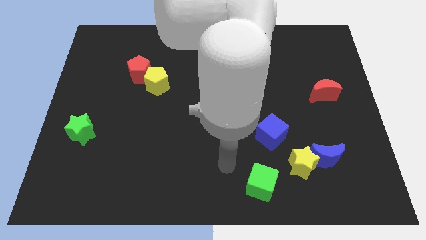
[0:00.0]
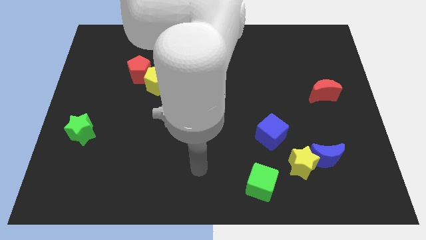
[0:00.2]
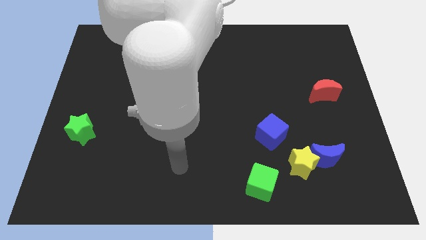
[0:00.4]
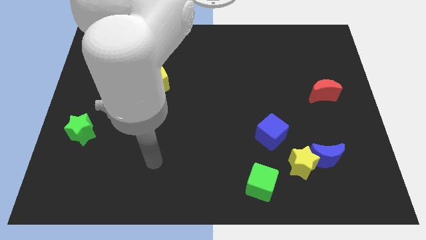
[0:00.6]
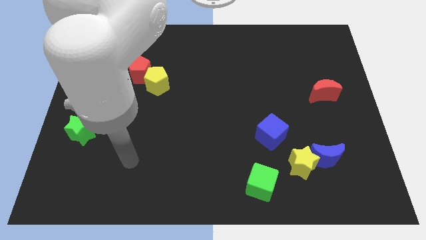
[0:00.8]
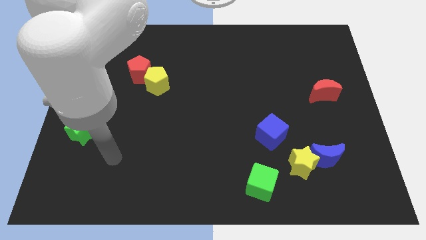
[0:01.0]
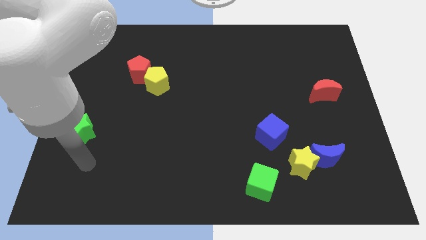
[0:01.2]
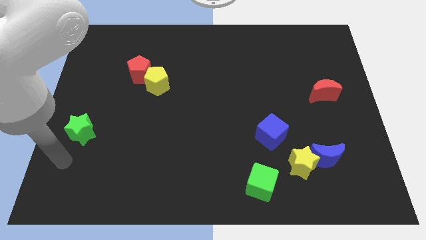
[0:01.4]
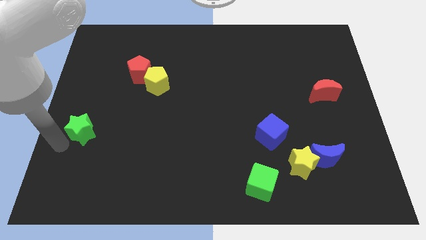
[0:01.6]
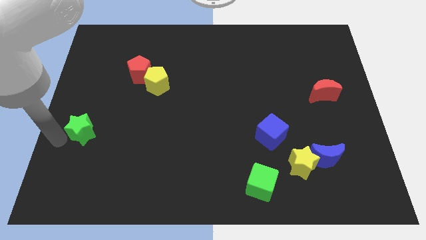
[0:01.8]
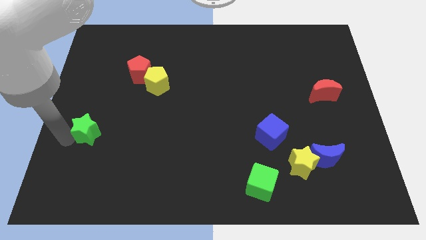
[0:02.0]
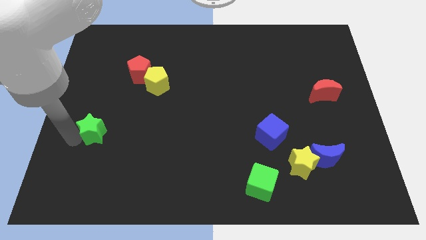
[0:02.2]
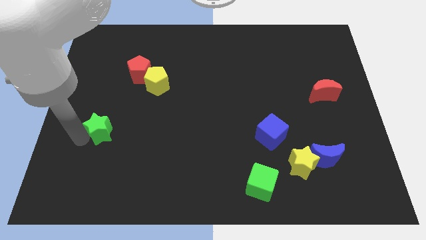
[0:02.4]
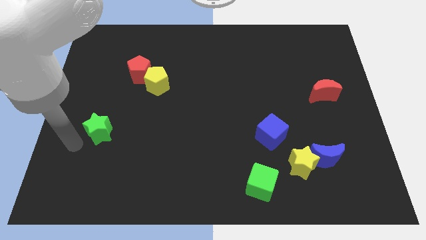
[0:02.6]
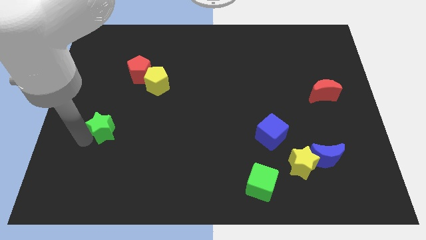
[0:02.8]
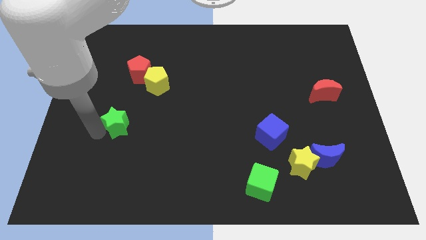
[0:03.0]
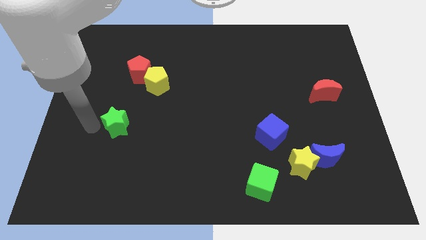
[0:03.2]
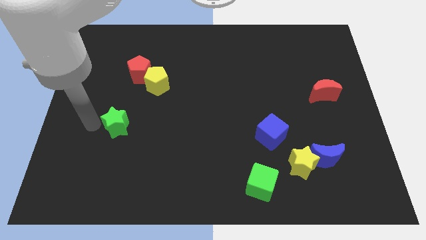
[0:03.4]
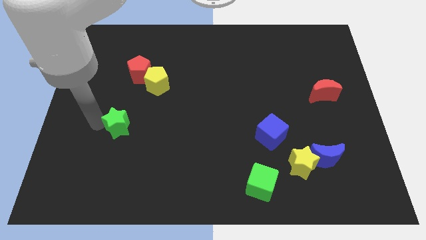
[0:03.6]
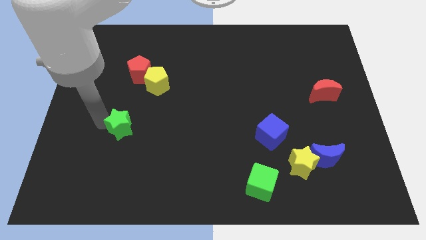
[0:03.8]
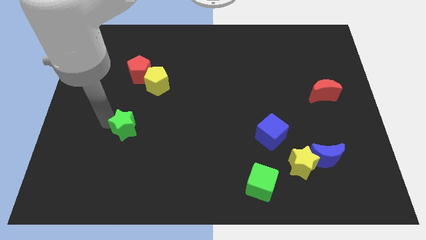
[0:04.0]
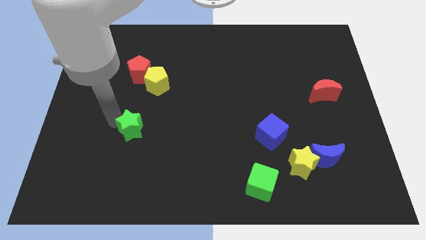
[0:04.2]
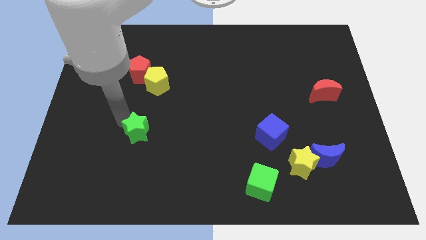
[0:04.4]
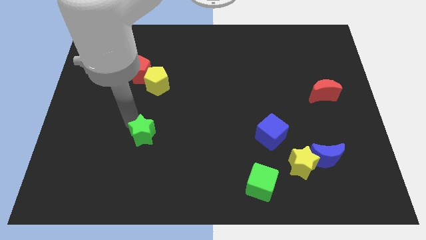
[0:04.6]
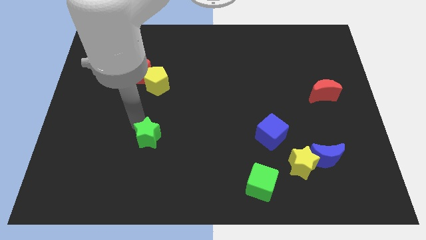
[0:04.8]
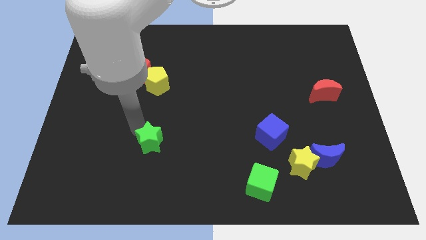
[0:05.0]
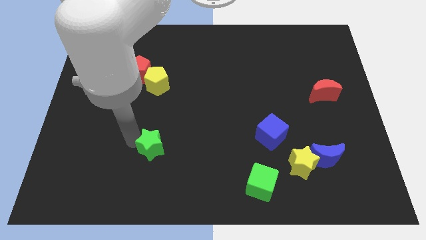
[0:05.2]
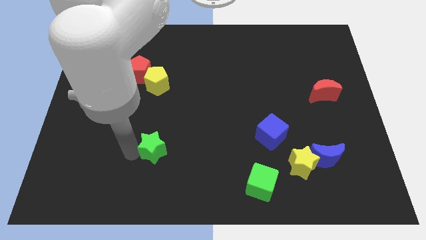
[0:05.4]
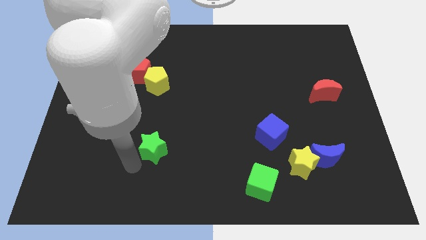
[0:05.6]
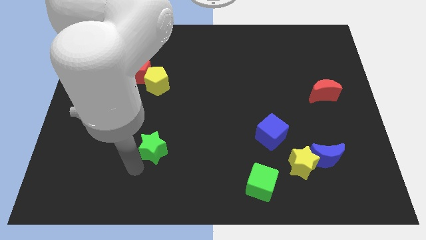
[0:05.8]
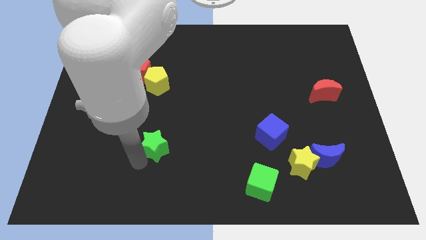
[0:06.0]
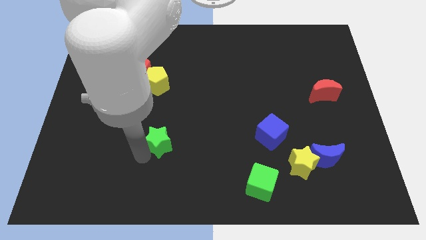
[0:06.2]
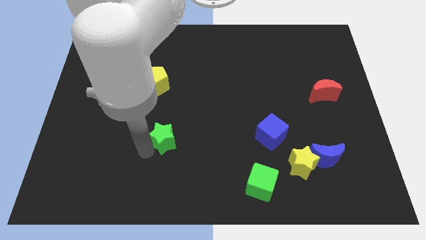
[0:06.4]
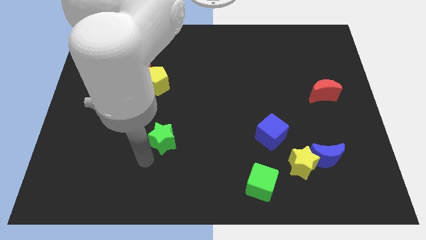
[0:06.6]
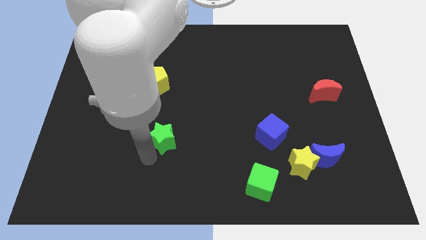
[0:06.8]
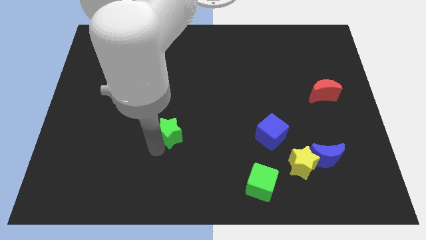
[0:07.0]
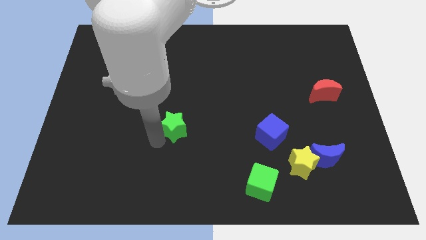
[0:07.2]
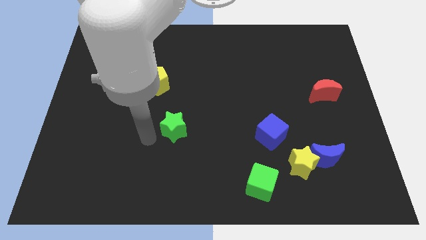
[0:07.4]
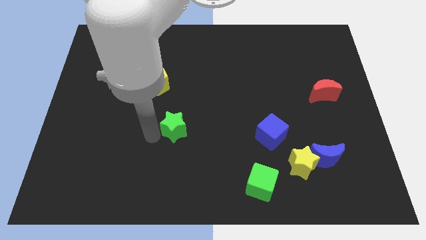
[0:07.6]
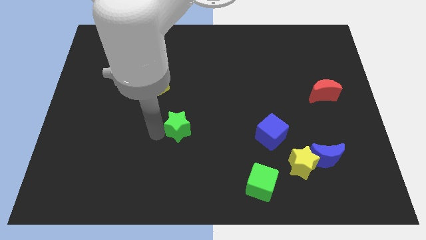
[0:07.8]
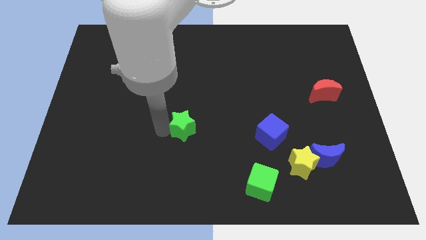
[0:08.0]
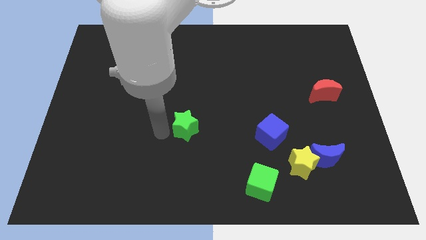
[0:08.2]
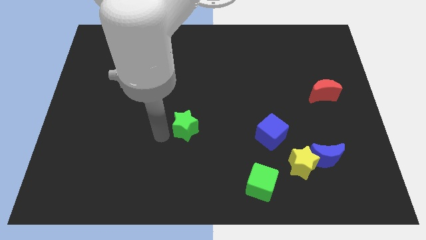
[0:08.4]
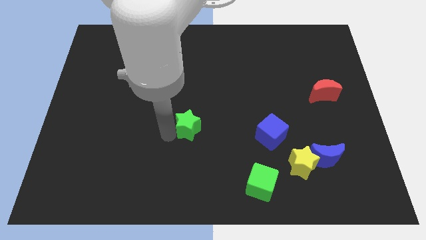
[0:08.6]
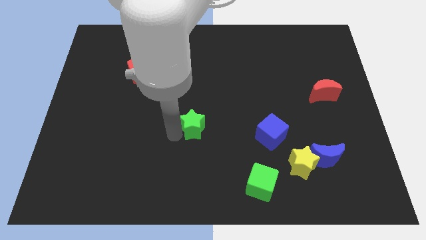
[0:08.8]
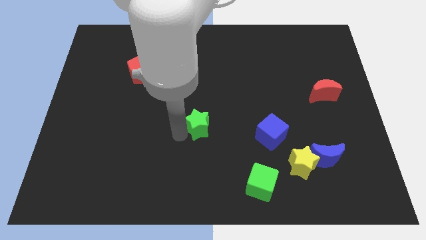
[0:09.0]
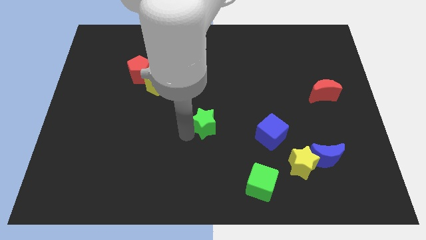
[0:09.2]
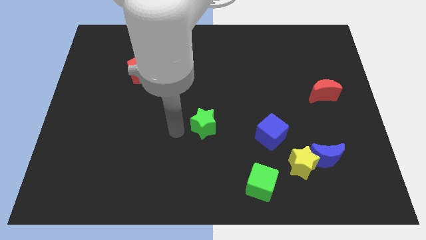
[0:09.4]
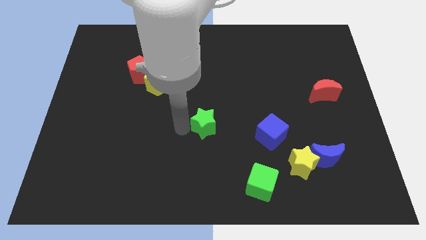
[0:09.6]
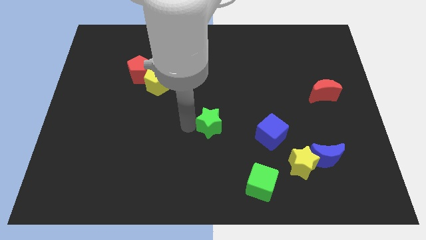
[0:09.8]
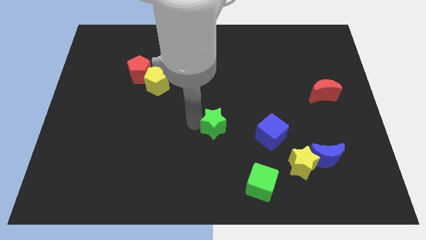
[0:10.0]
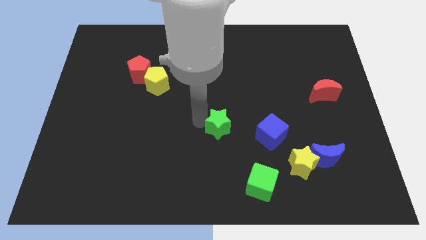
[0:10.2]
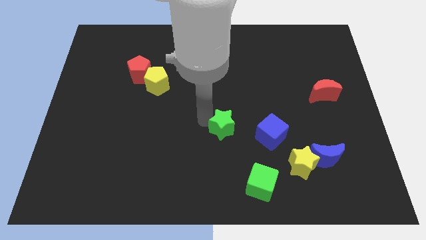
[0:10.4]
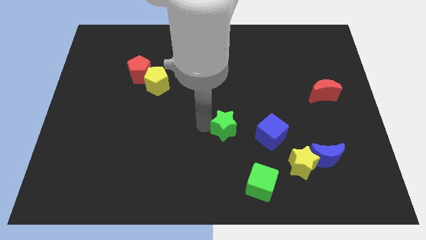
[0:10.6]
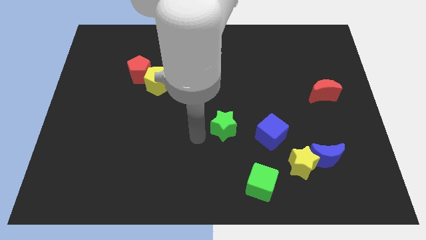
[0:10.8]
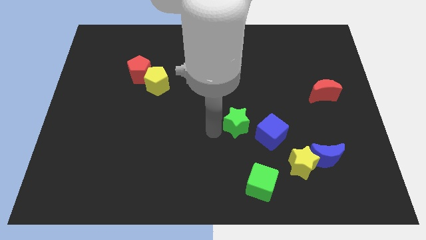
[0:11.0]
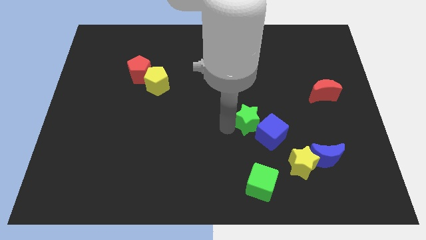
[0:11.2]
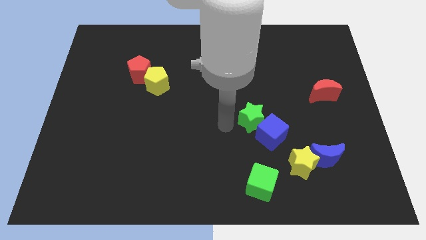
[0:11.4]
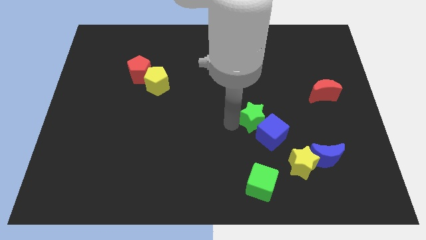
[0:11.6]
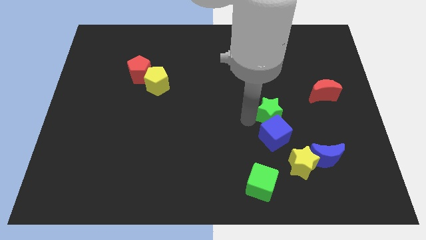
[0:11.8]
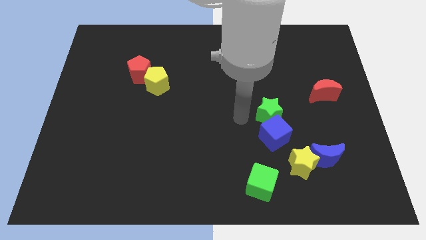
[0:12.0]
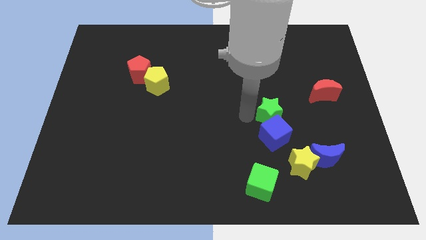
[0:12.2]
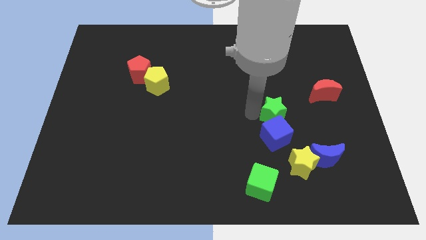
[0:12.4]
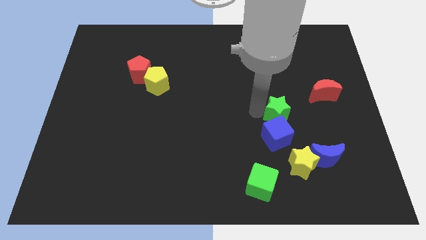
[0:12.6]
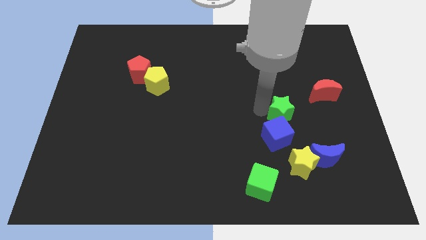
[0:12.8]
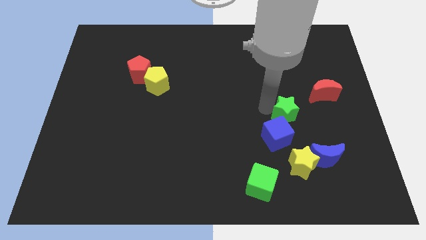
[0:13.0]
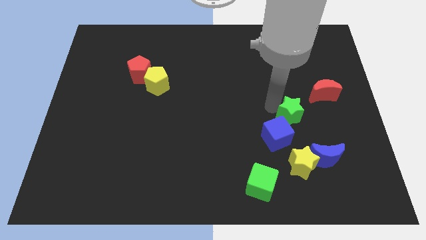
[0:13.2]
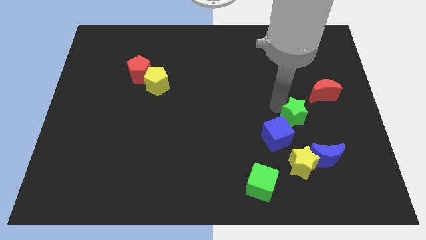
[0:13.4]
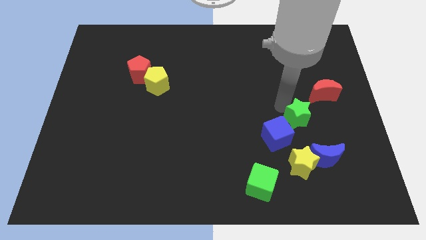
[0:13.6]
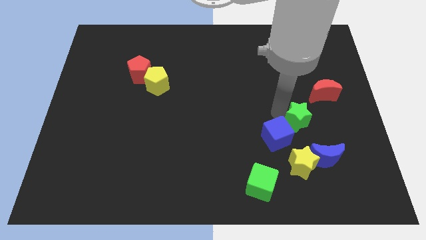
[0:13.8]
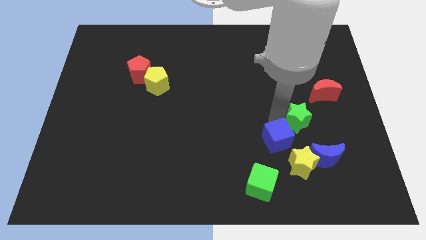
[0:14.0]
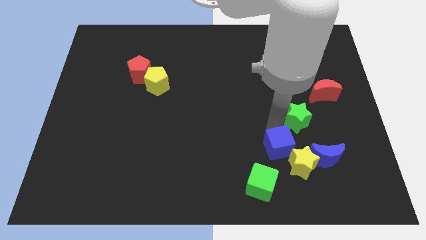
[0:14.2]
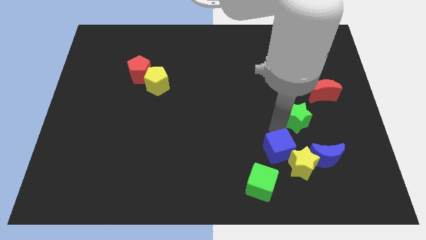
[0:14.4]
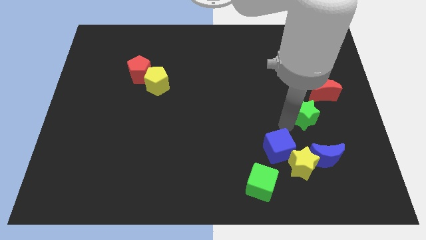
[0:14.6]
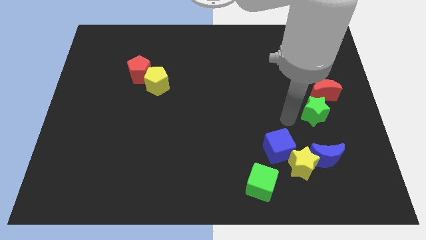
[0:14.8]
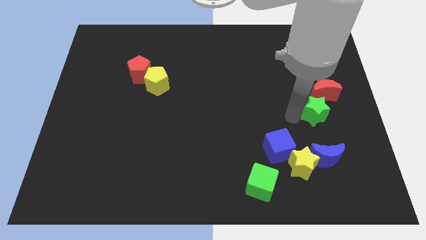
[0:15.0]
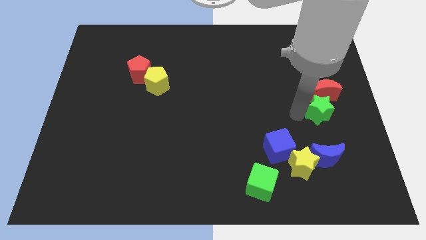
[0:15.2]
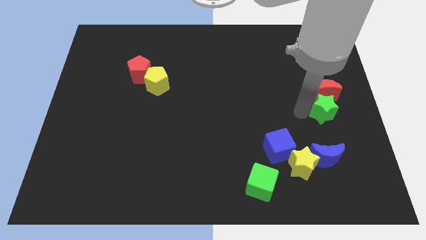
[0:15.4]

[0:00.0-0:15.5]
put the green star to the center right
